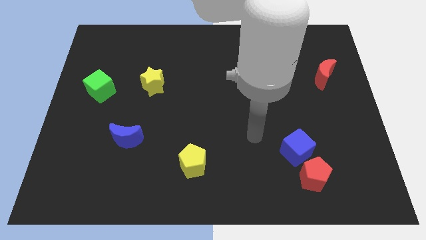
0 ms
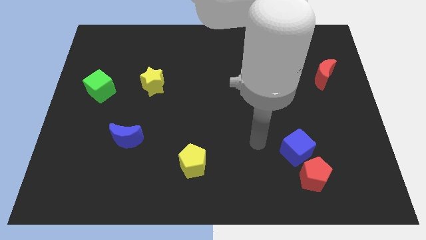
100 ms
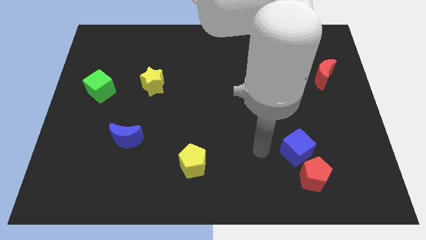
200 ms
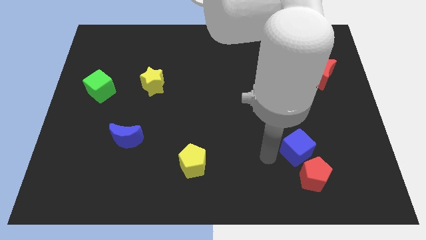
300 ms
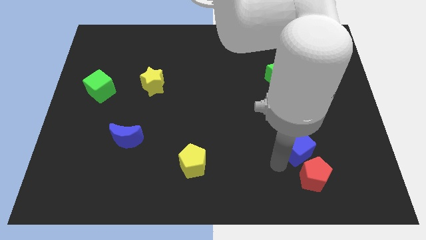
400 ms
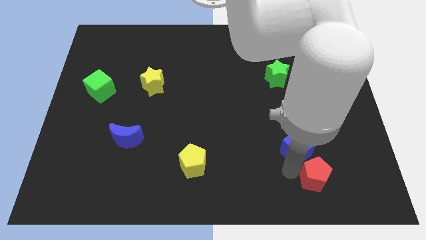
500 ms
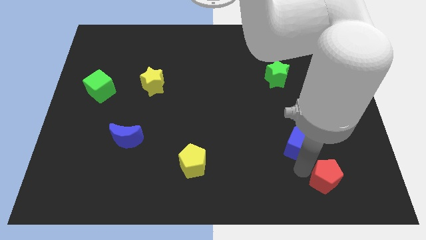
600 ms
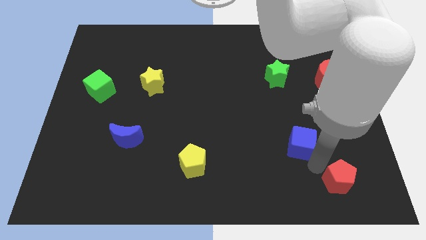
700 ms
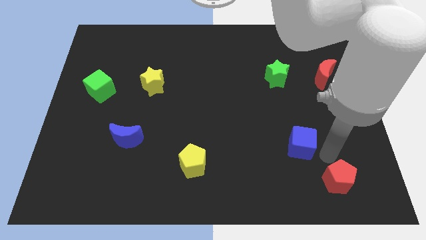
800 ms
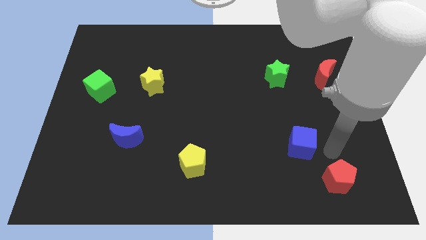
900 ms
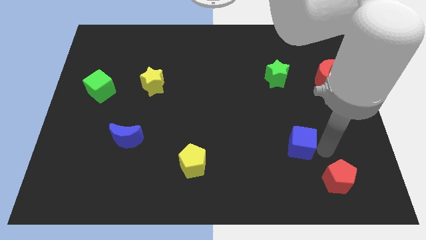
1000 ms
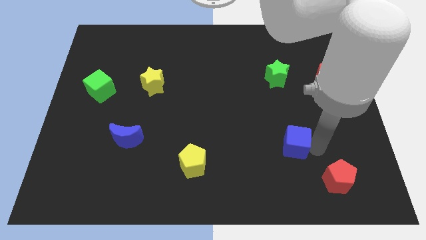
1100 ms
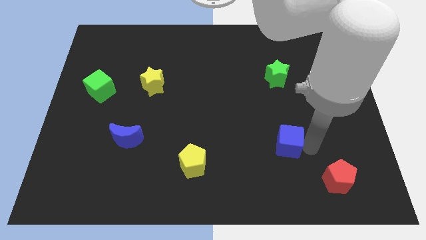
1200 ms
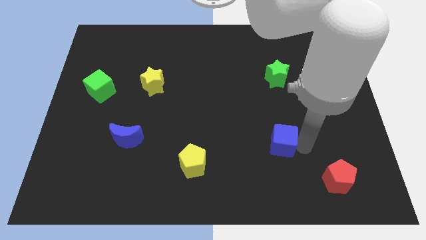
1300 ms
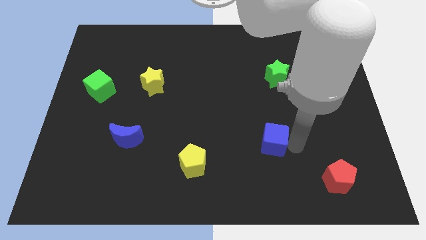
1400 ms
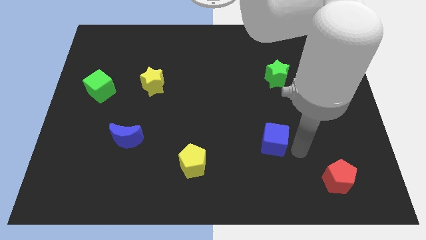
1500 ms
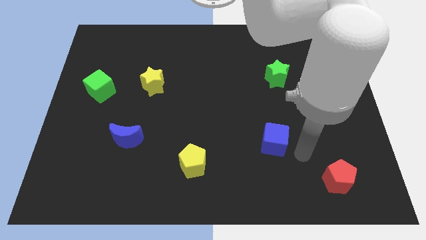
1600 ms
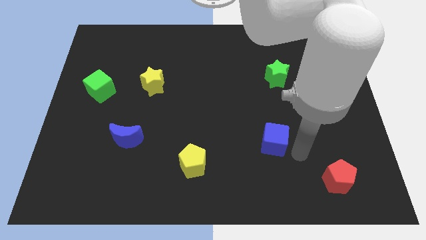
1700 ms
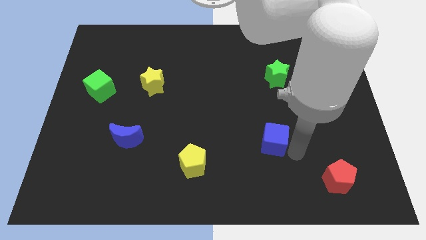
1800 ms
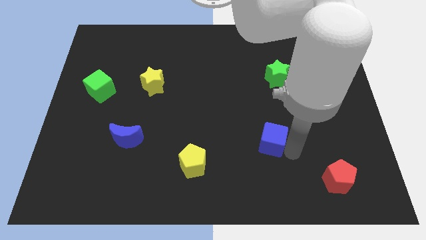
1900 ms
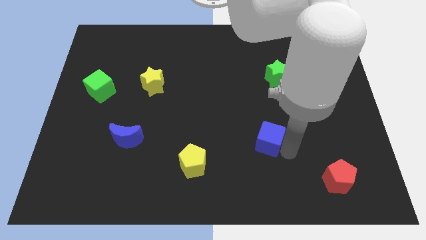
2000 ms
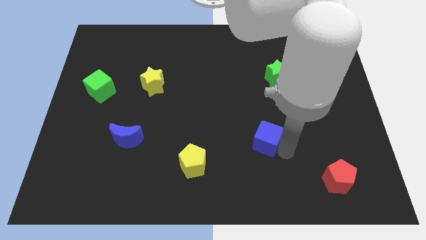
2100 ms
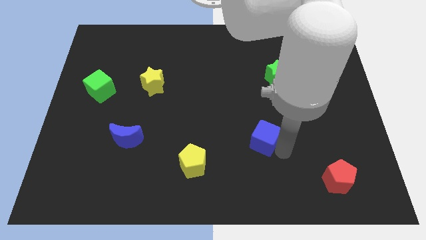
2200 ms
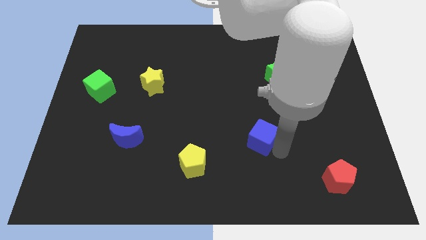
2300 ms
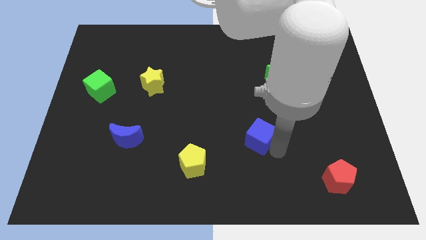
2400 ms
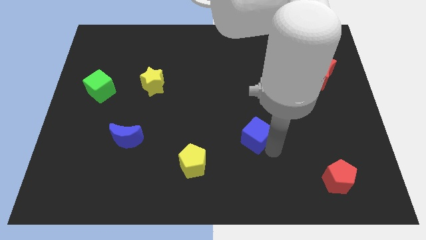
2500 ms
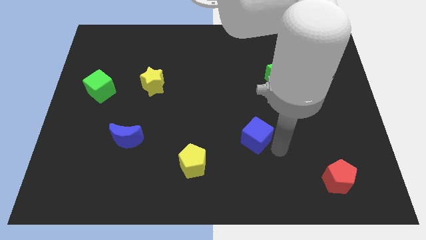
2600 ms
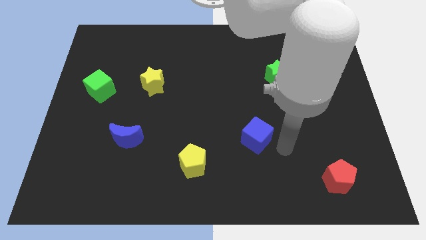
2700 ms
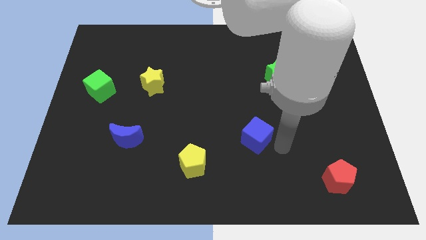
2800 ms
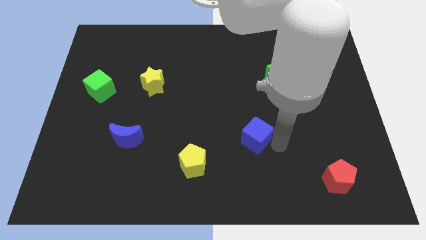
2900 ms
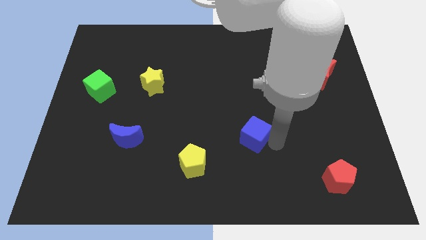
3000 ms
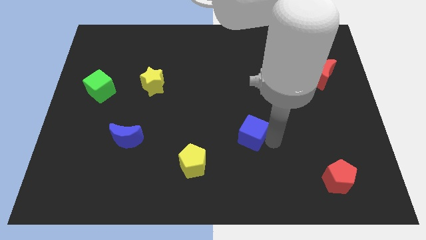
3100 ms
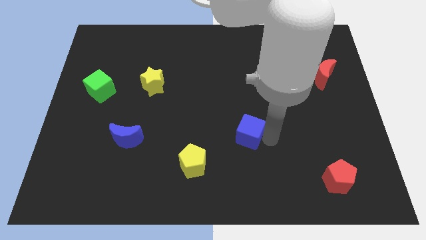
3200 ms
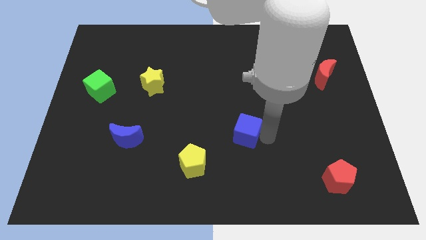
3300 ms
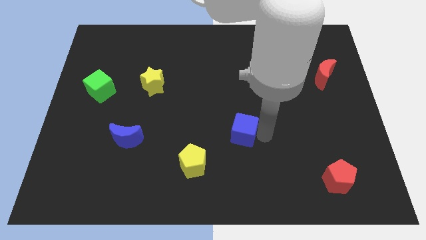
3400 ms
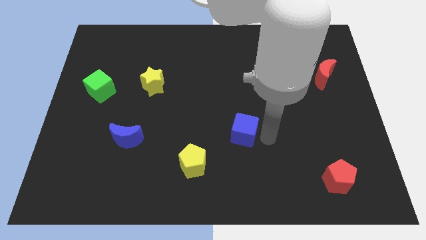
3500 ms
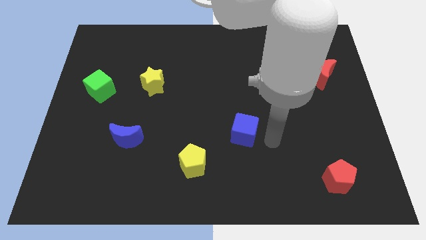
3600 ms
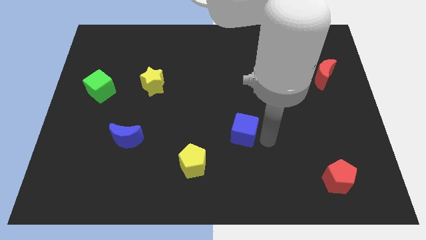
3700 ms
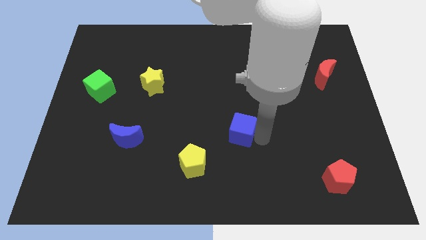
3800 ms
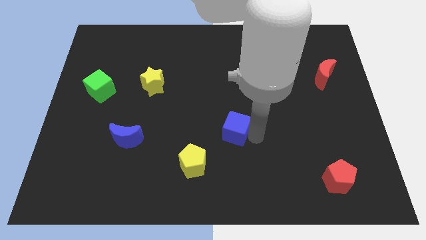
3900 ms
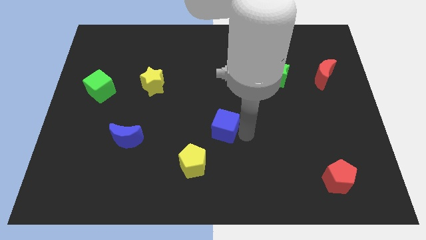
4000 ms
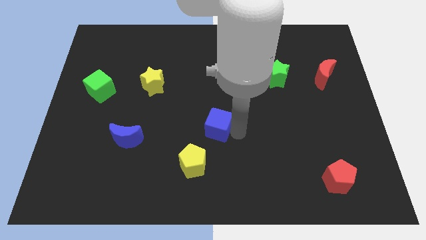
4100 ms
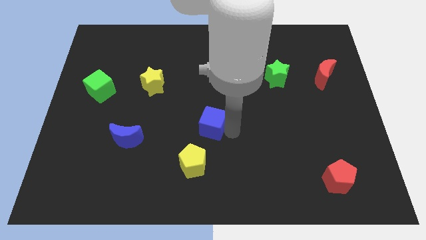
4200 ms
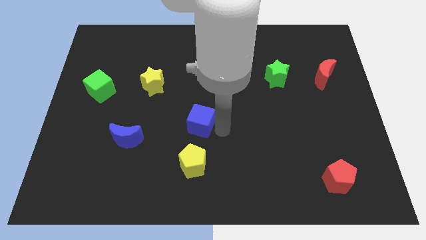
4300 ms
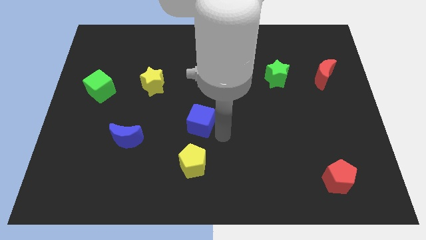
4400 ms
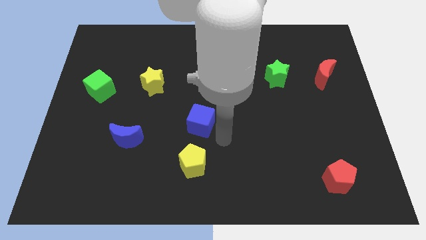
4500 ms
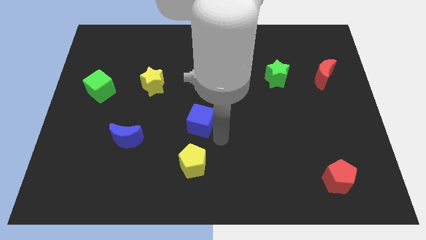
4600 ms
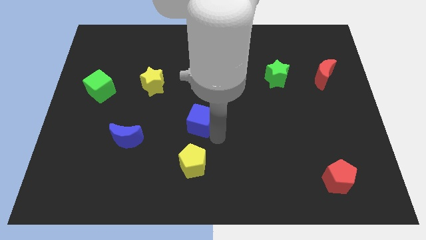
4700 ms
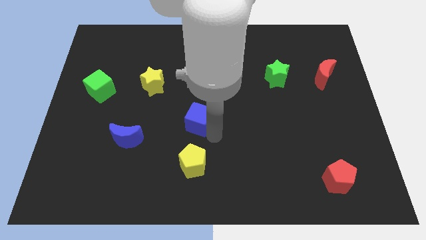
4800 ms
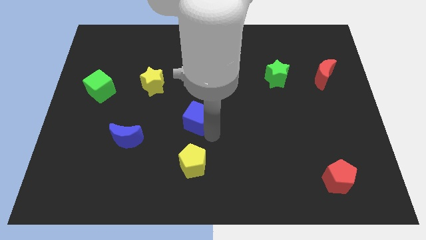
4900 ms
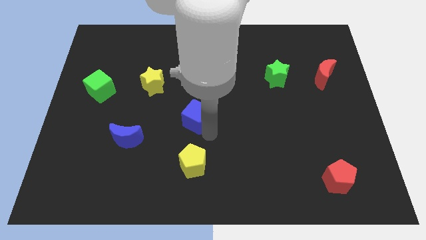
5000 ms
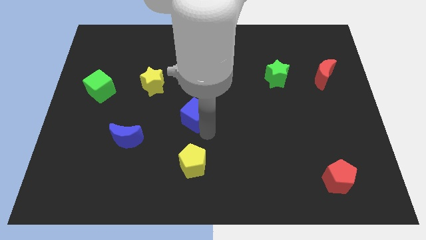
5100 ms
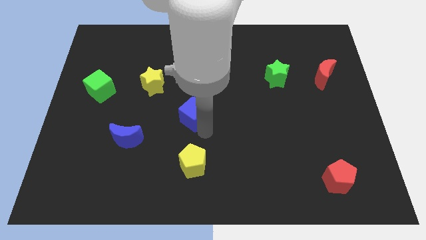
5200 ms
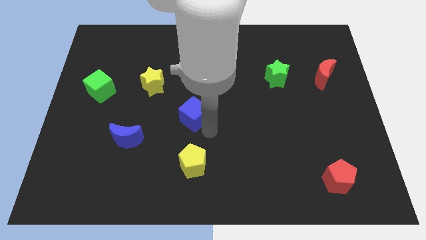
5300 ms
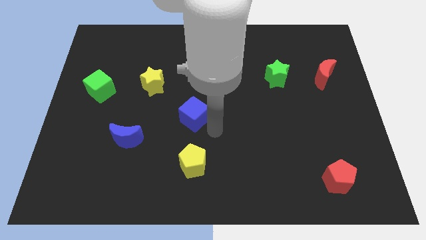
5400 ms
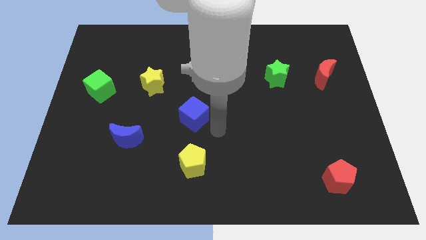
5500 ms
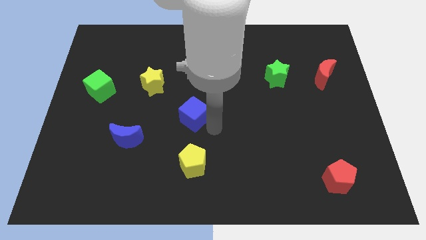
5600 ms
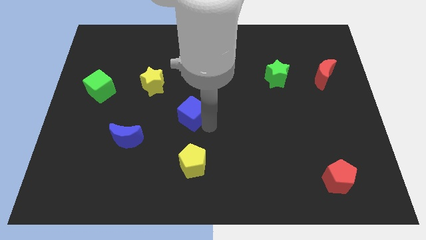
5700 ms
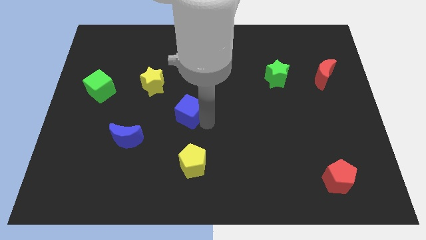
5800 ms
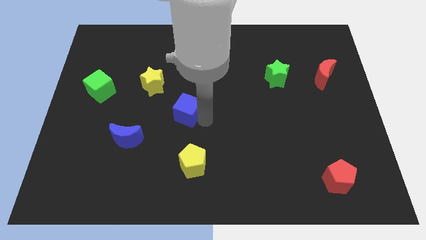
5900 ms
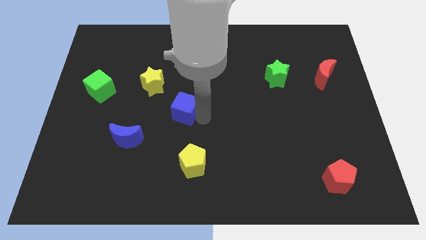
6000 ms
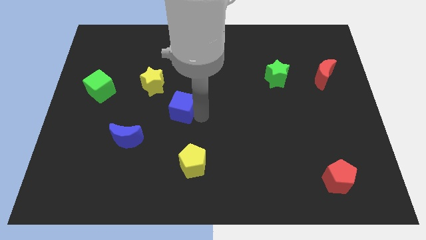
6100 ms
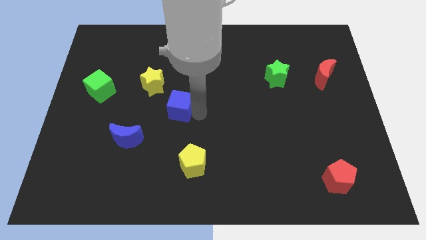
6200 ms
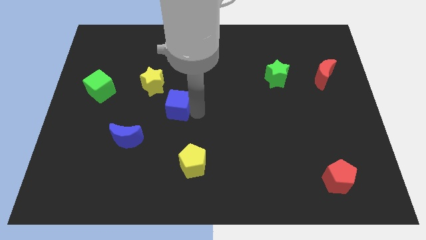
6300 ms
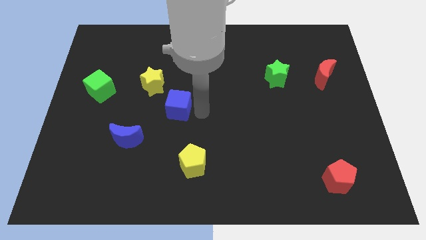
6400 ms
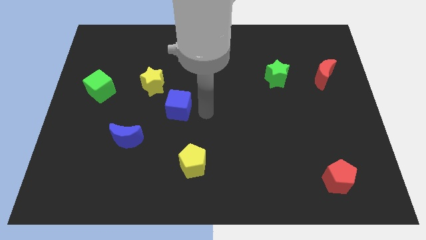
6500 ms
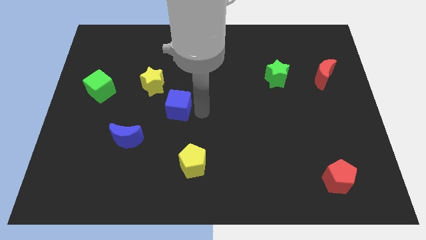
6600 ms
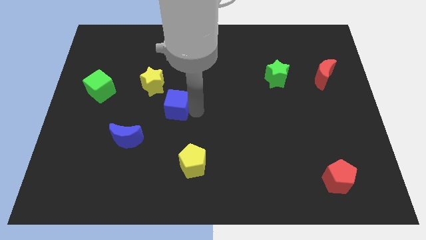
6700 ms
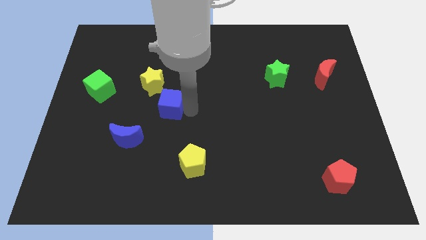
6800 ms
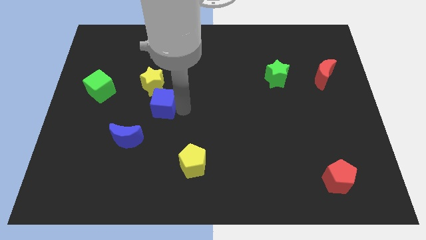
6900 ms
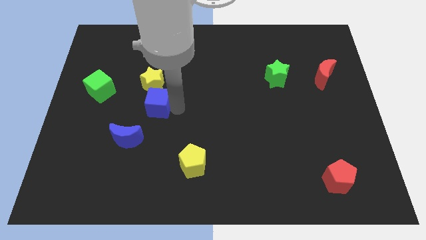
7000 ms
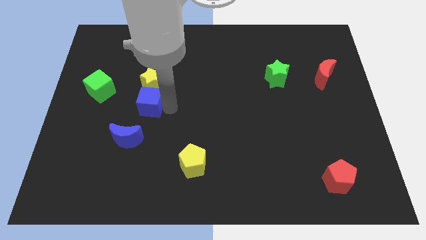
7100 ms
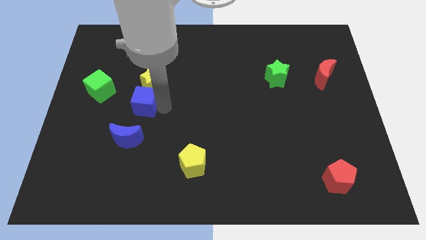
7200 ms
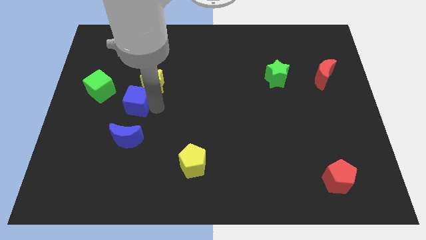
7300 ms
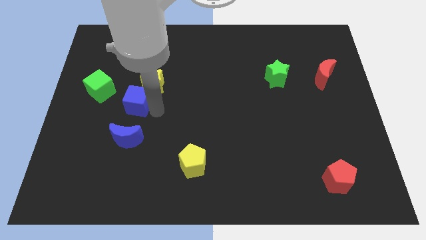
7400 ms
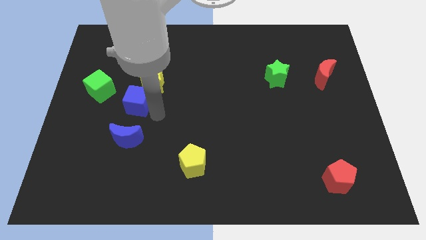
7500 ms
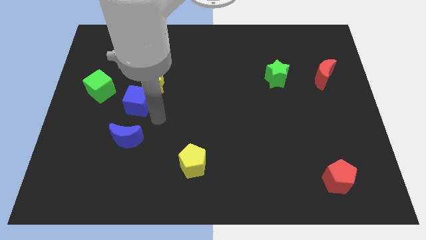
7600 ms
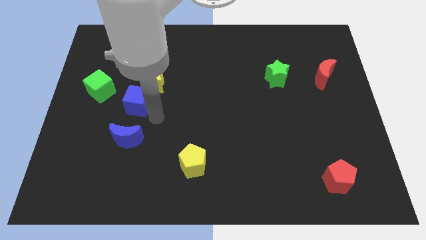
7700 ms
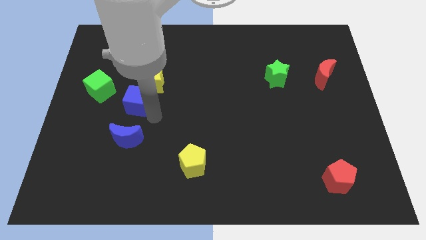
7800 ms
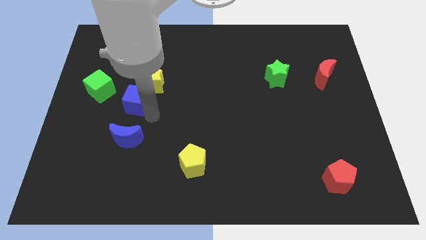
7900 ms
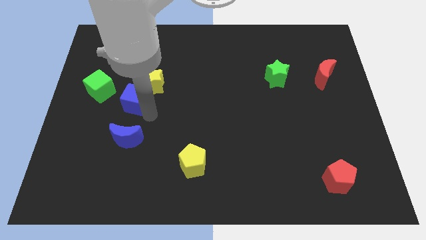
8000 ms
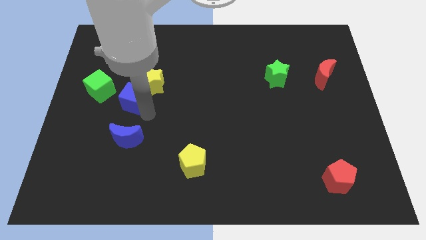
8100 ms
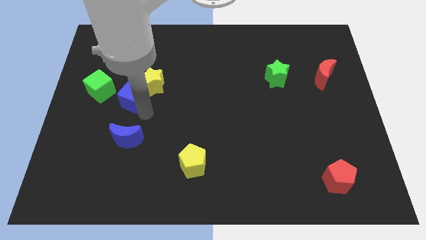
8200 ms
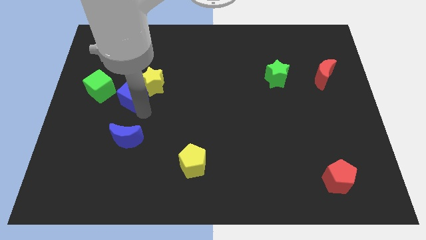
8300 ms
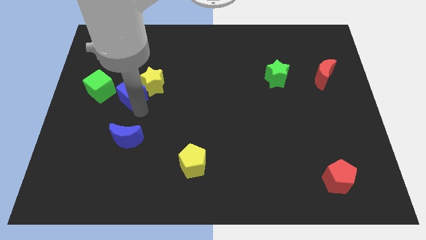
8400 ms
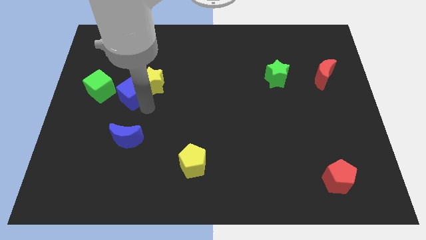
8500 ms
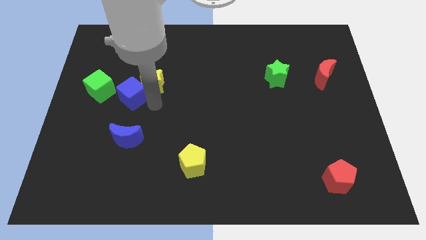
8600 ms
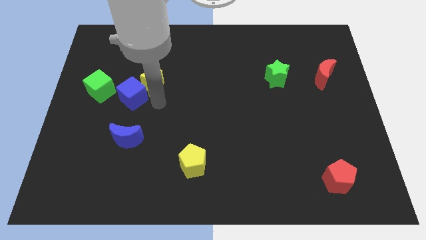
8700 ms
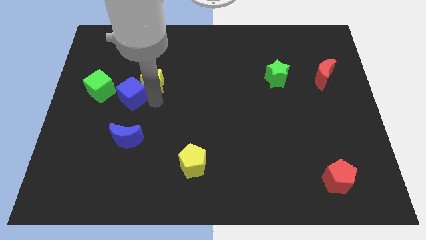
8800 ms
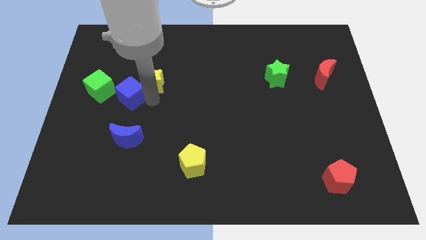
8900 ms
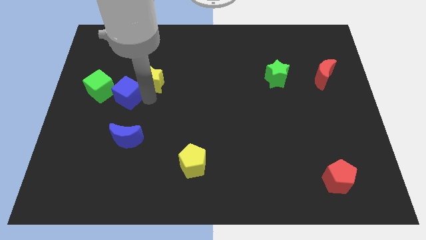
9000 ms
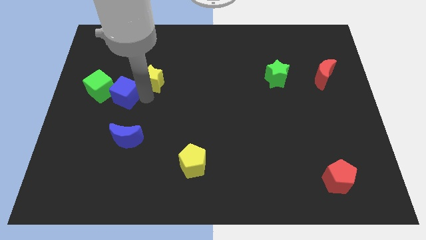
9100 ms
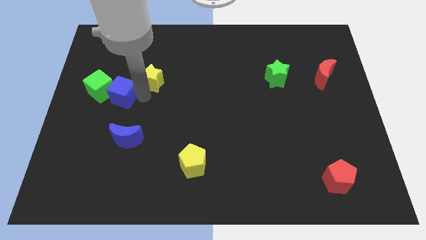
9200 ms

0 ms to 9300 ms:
put the blue cube towards the green cube
